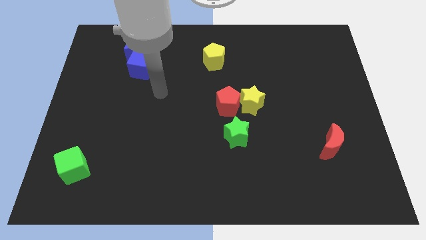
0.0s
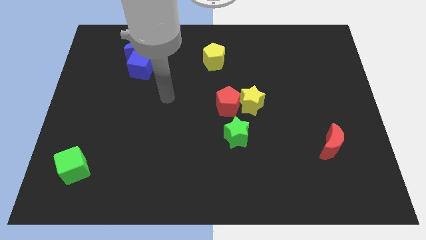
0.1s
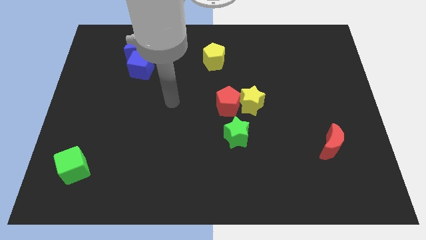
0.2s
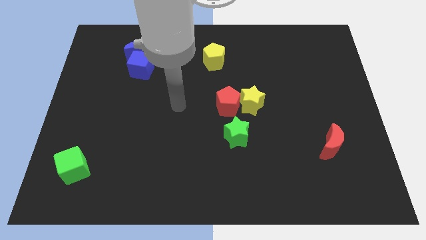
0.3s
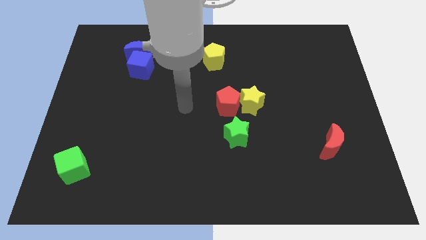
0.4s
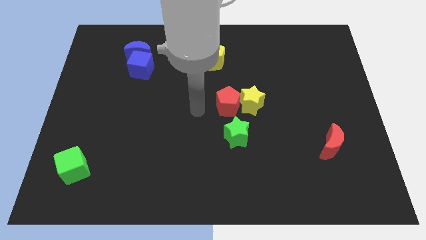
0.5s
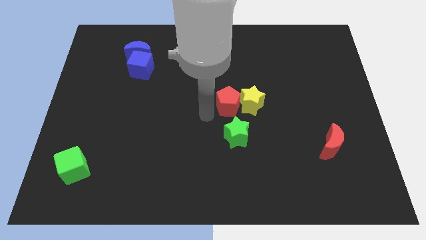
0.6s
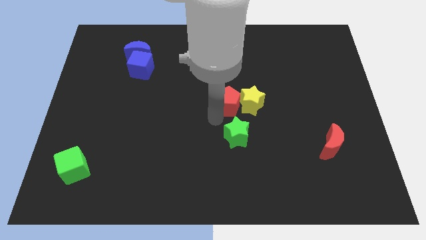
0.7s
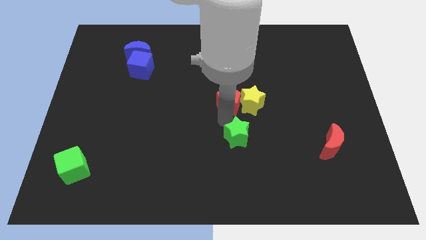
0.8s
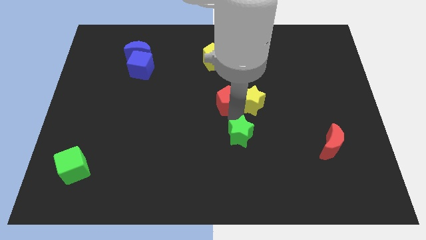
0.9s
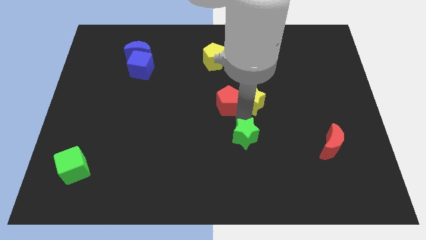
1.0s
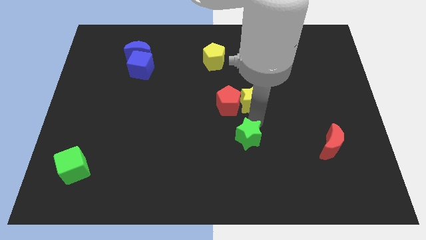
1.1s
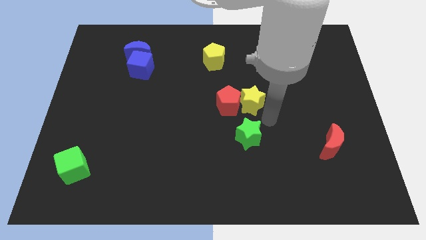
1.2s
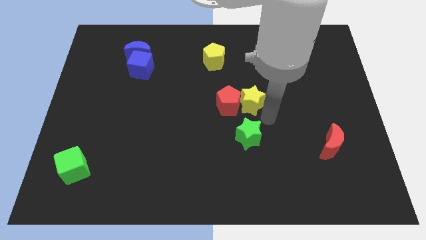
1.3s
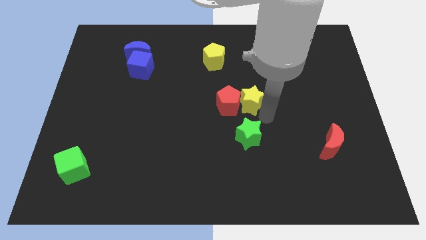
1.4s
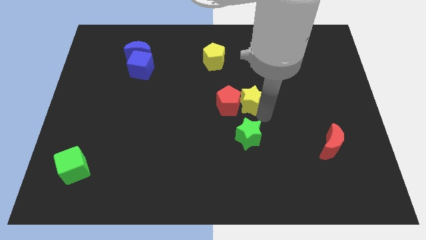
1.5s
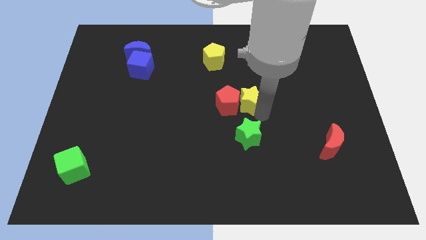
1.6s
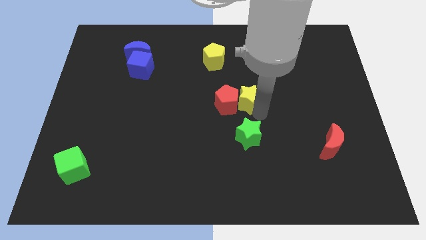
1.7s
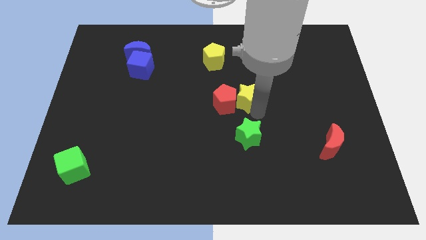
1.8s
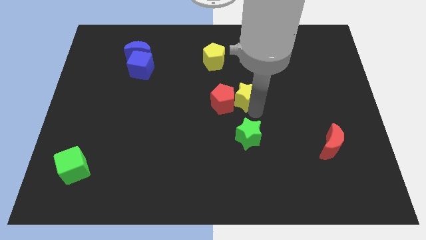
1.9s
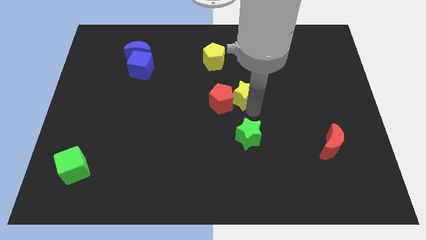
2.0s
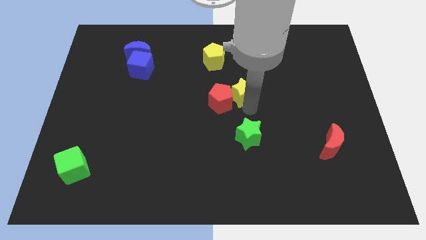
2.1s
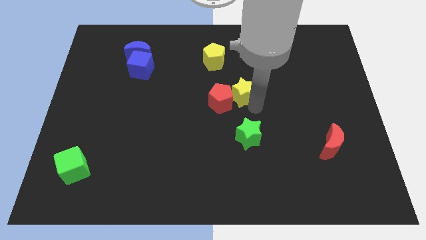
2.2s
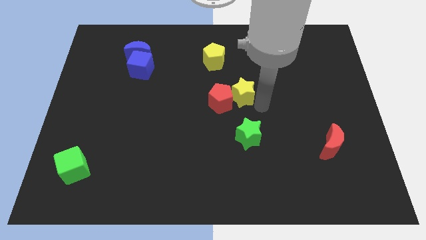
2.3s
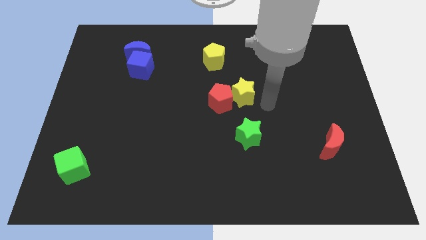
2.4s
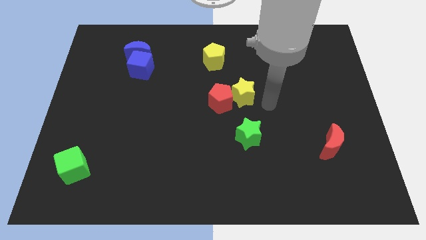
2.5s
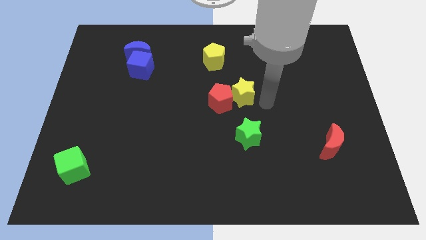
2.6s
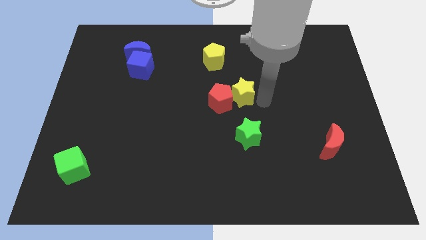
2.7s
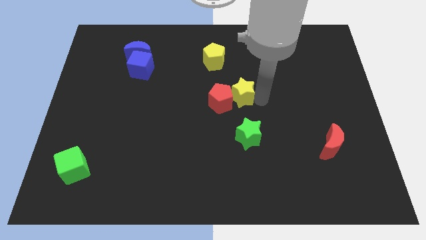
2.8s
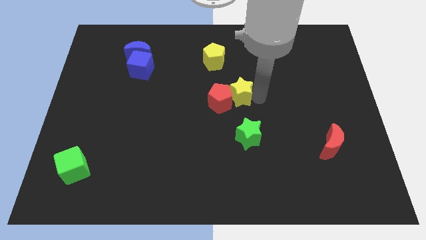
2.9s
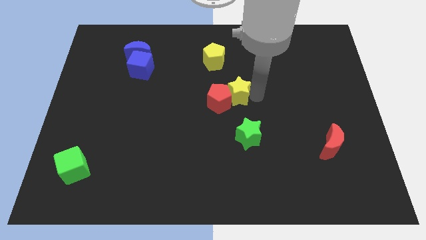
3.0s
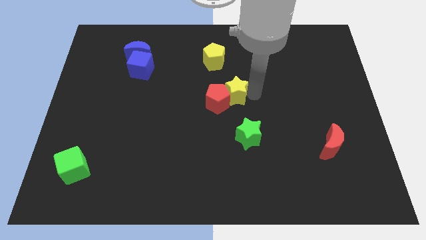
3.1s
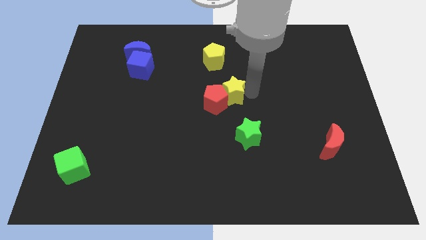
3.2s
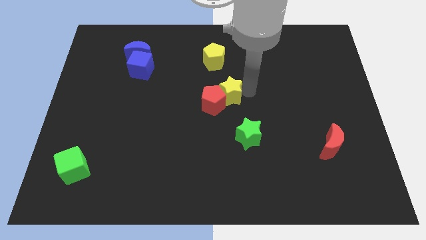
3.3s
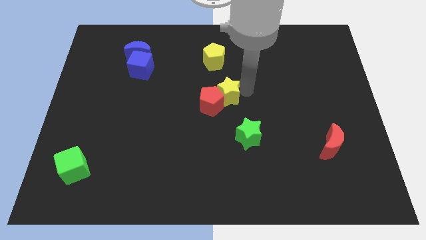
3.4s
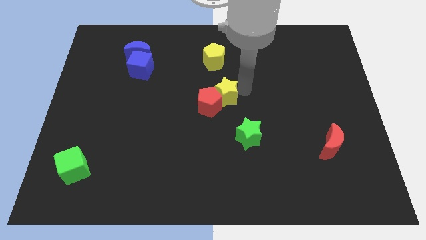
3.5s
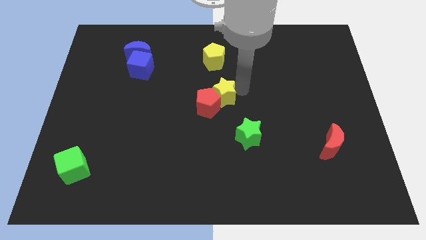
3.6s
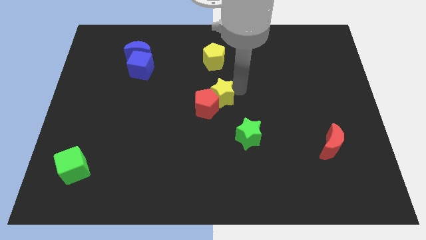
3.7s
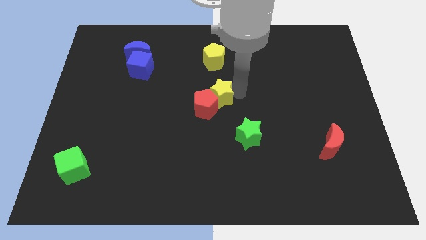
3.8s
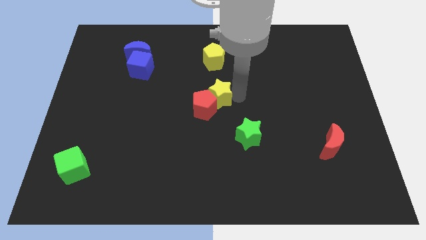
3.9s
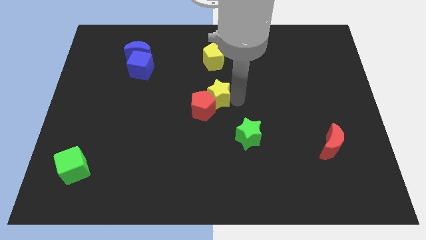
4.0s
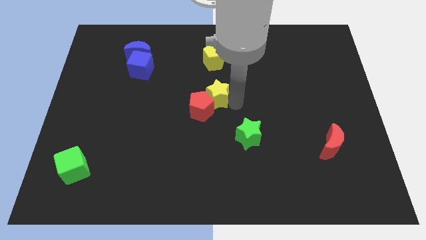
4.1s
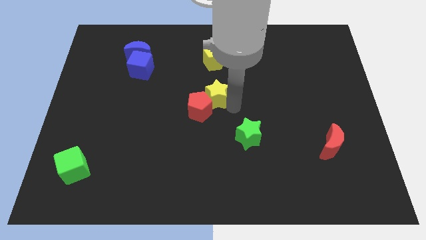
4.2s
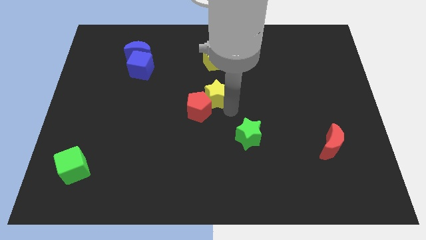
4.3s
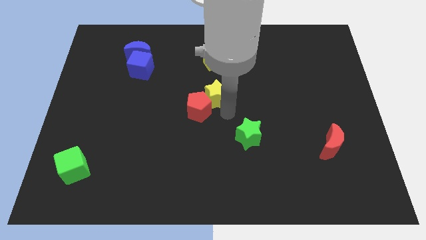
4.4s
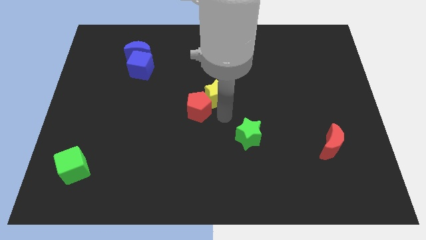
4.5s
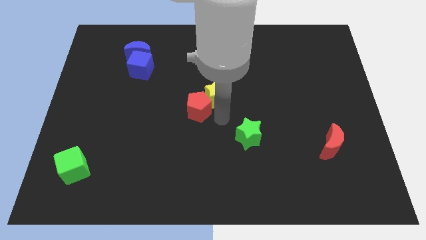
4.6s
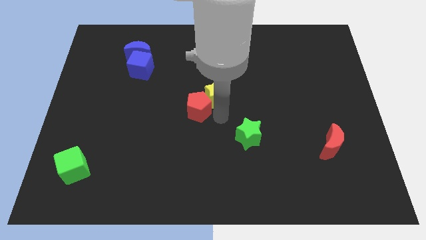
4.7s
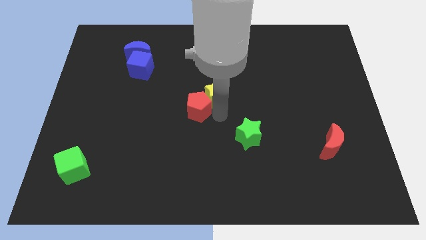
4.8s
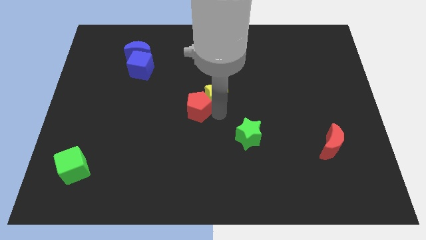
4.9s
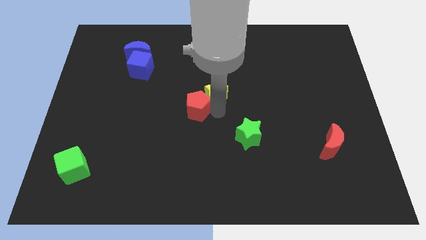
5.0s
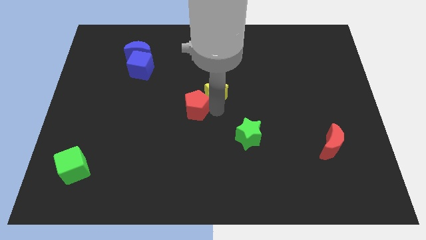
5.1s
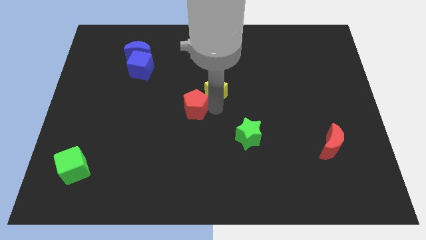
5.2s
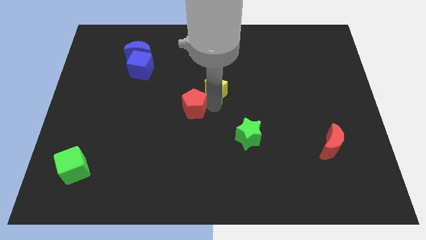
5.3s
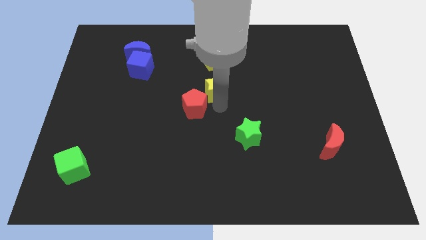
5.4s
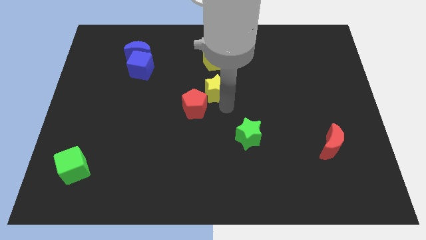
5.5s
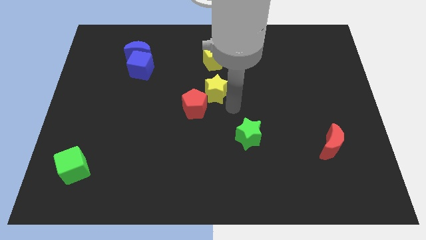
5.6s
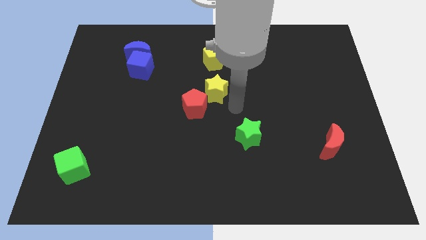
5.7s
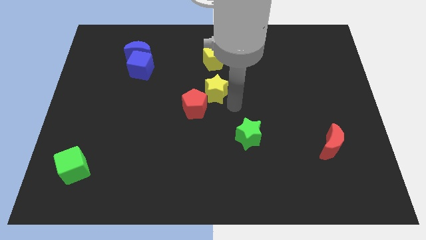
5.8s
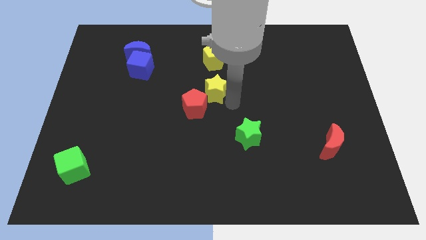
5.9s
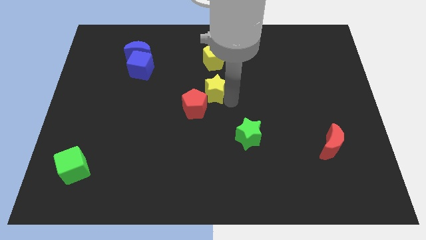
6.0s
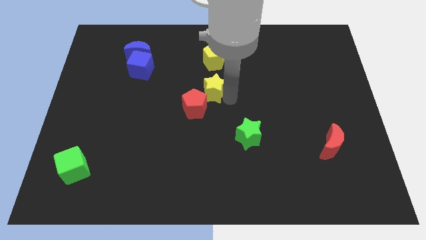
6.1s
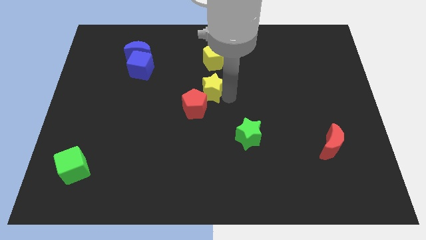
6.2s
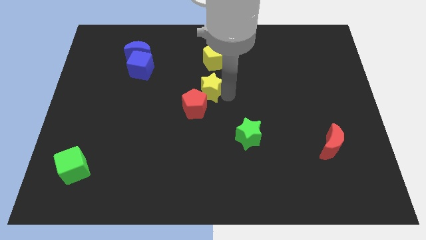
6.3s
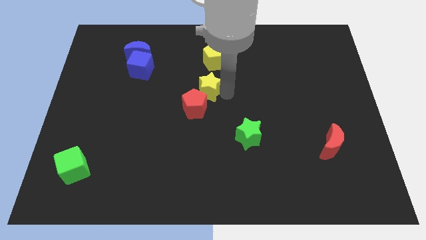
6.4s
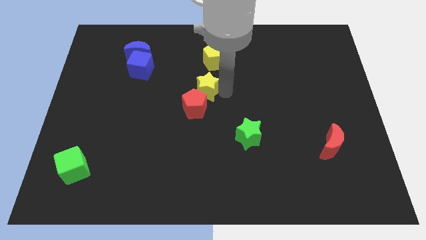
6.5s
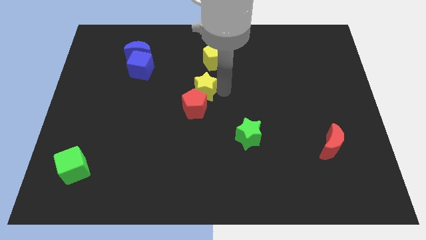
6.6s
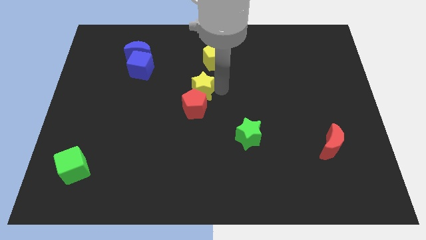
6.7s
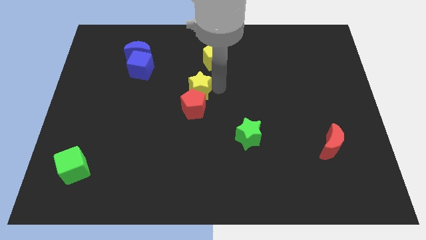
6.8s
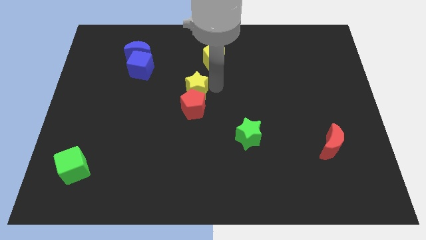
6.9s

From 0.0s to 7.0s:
move the yellow star to the bottom left of the yellow pentagon

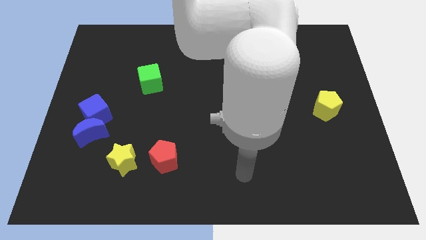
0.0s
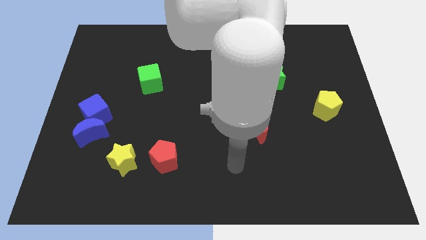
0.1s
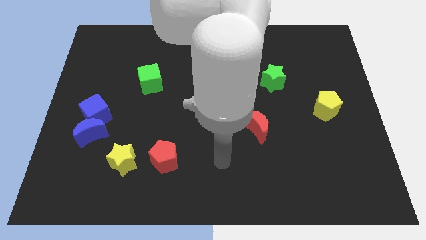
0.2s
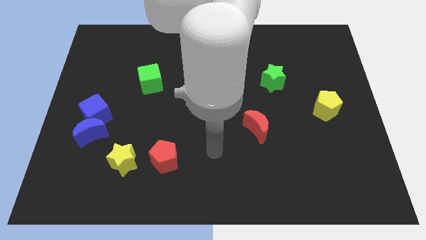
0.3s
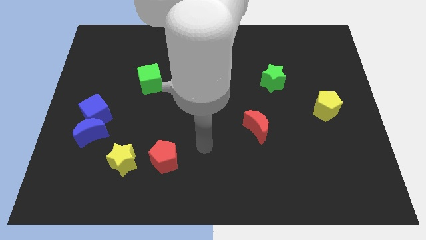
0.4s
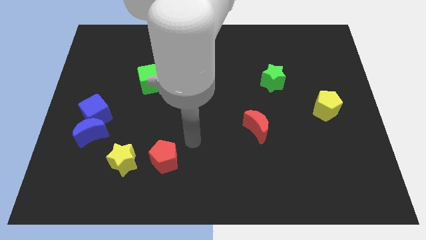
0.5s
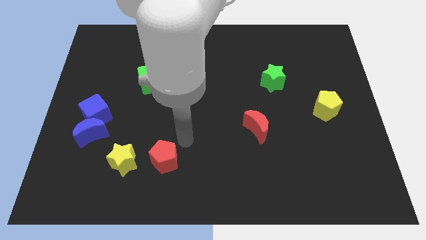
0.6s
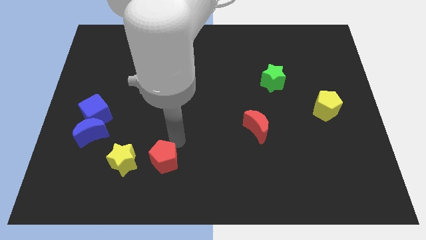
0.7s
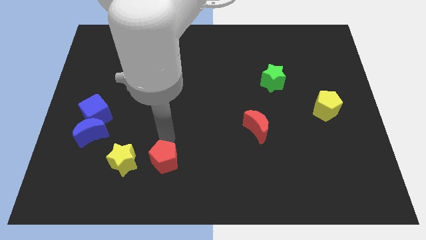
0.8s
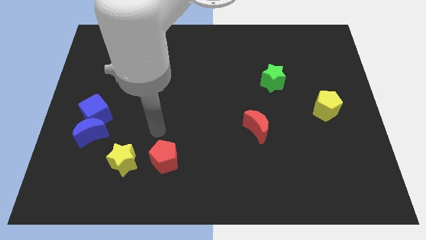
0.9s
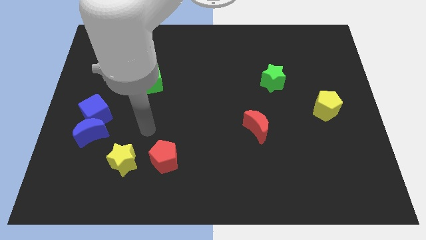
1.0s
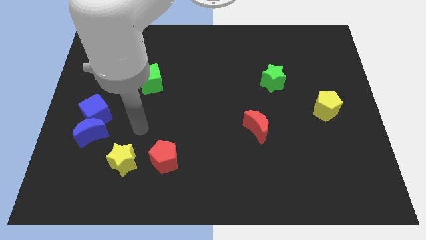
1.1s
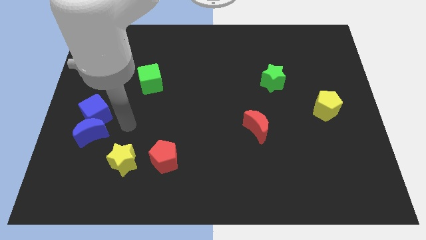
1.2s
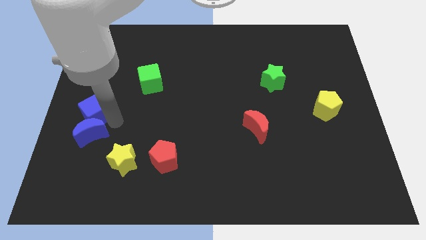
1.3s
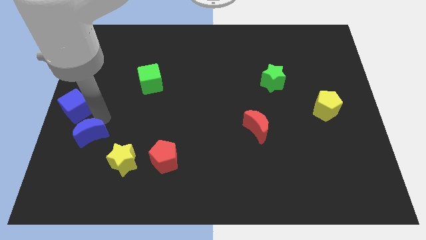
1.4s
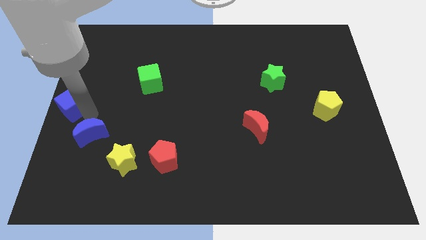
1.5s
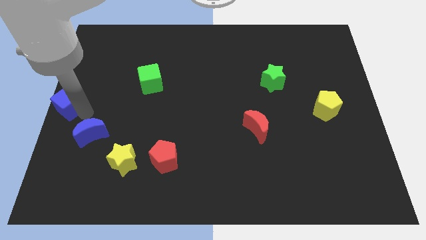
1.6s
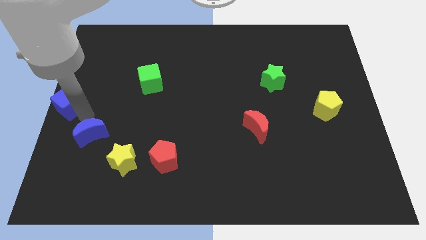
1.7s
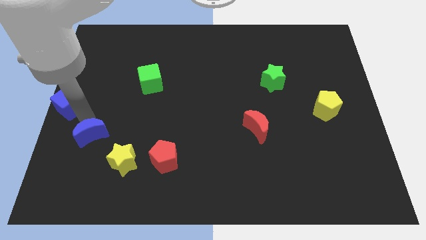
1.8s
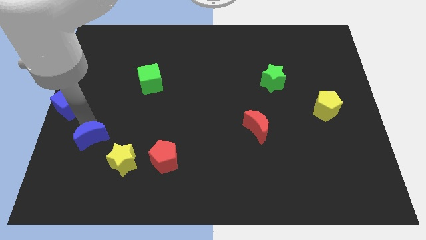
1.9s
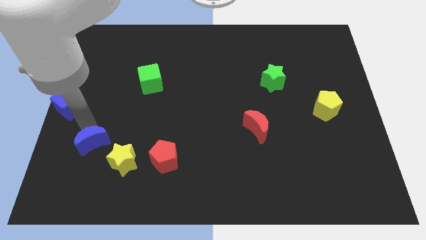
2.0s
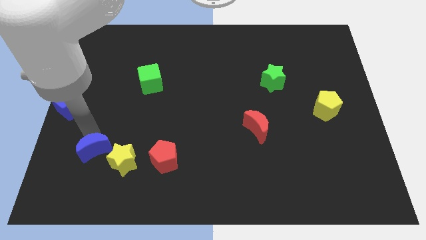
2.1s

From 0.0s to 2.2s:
move the blue moon left of the red pentagon
